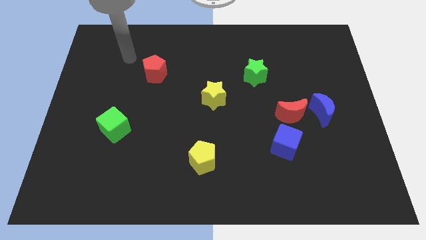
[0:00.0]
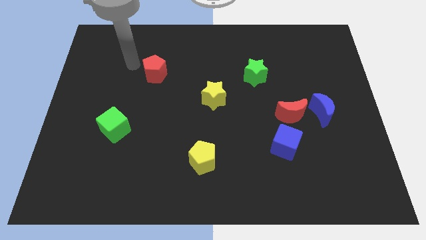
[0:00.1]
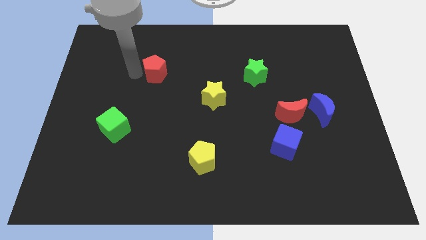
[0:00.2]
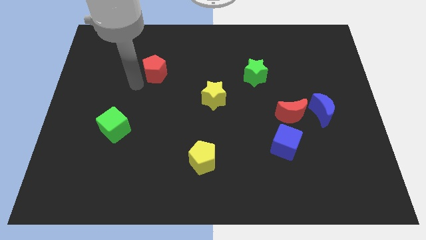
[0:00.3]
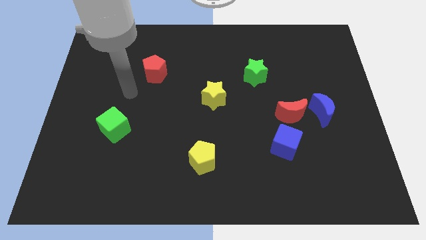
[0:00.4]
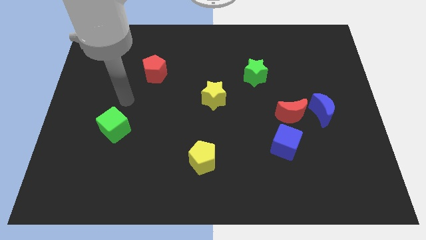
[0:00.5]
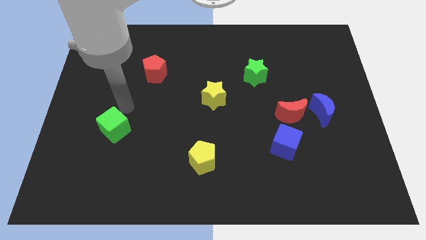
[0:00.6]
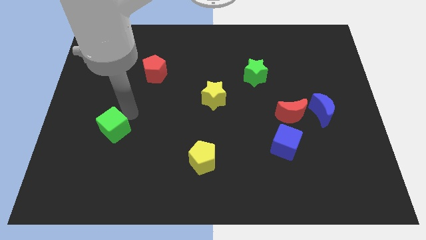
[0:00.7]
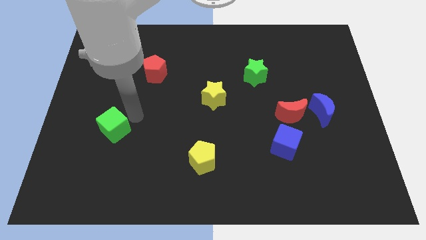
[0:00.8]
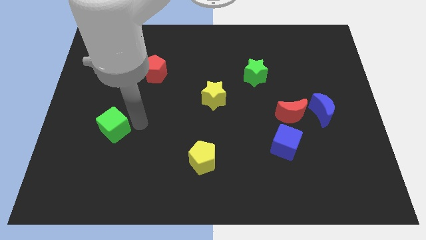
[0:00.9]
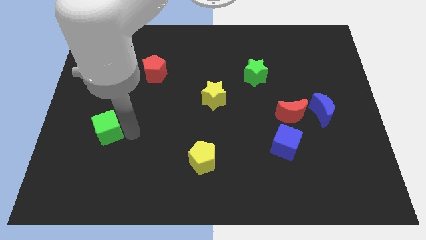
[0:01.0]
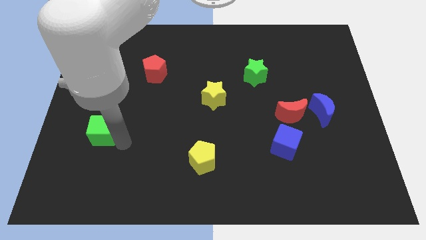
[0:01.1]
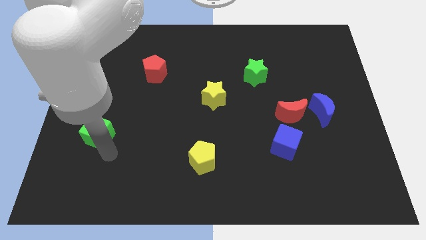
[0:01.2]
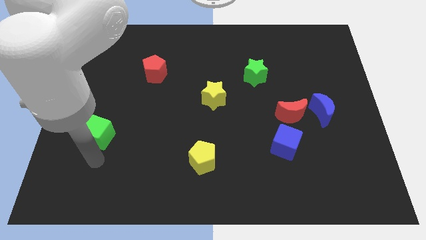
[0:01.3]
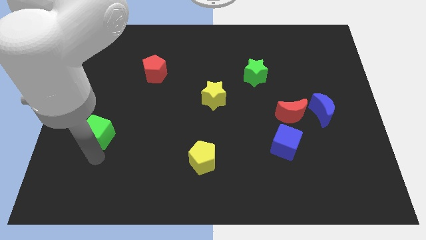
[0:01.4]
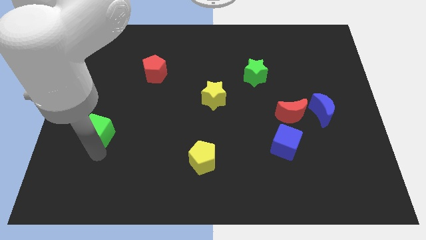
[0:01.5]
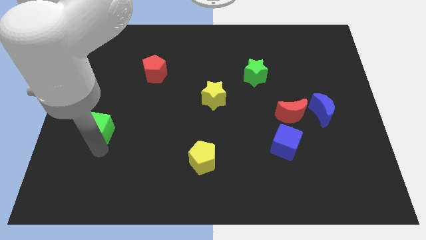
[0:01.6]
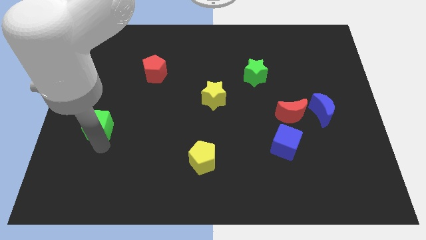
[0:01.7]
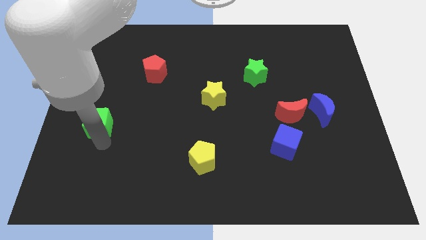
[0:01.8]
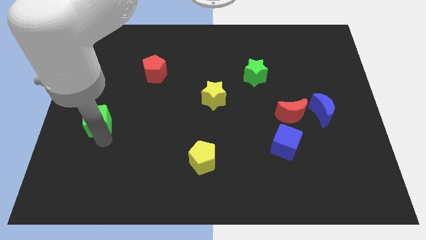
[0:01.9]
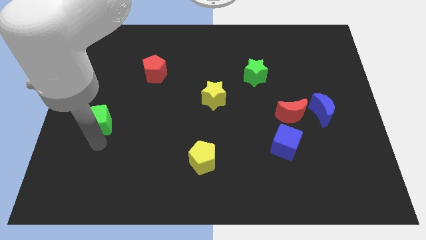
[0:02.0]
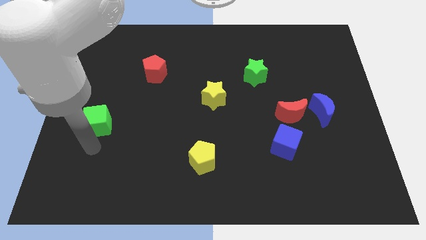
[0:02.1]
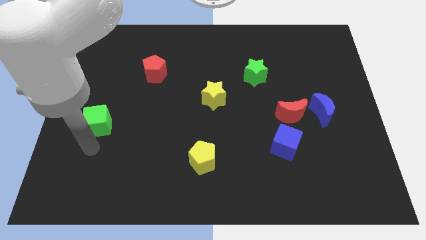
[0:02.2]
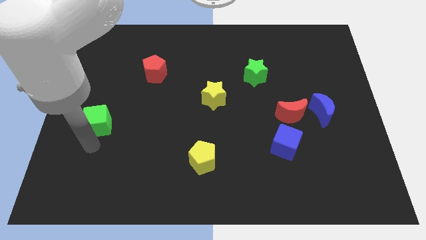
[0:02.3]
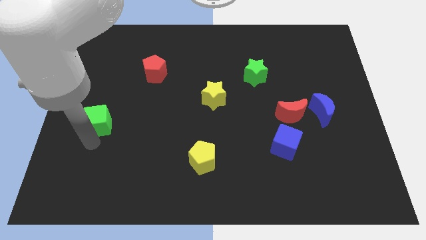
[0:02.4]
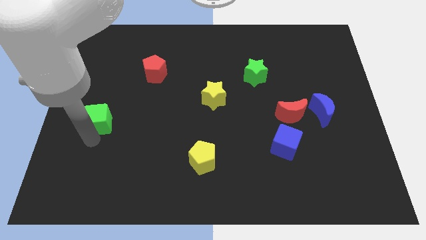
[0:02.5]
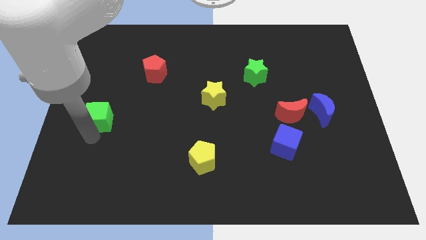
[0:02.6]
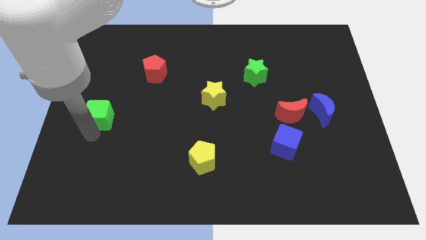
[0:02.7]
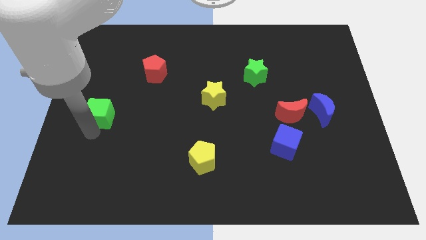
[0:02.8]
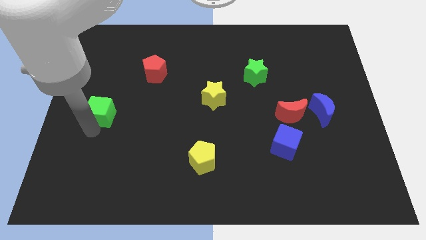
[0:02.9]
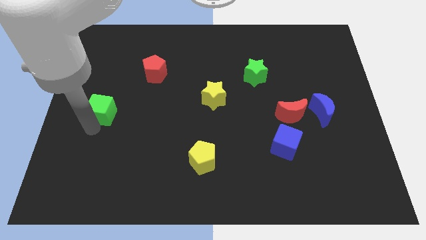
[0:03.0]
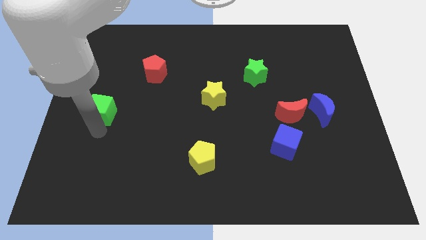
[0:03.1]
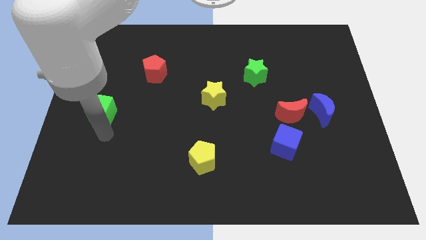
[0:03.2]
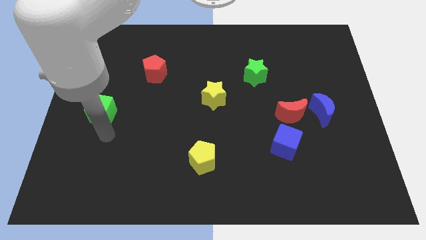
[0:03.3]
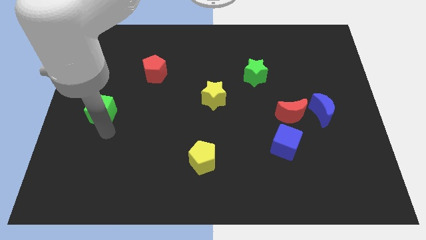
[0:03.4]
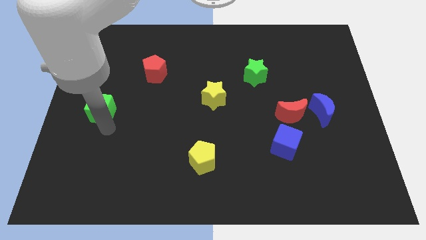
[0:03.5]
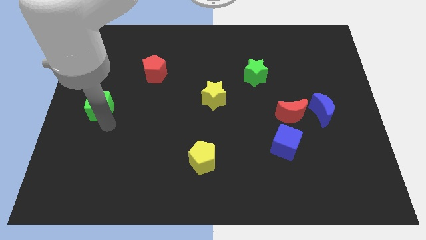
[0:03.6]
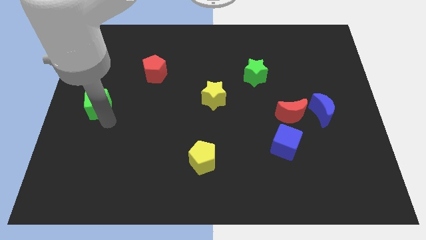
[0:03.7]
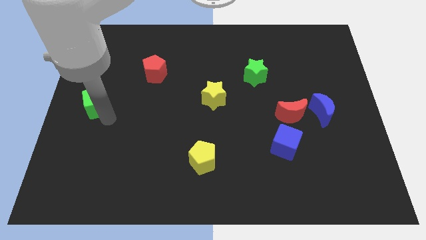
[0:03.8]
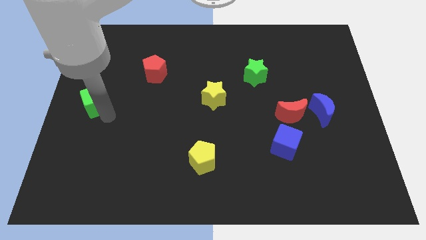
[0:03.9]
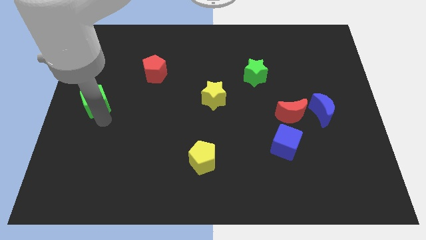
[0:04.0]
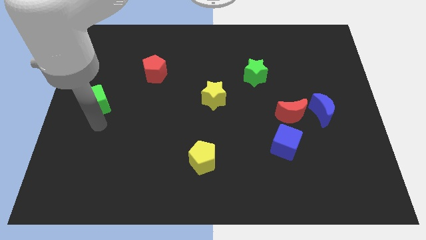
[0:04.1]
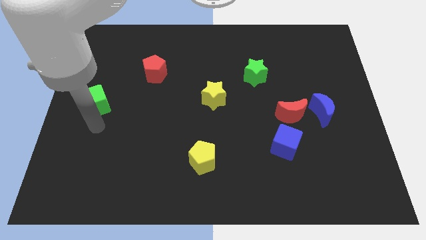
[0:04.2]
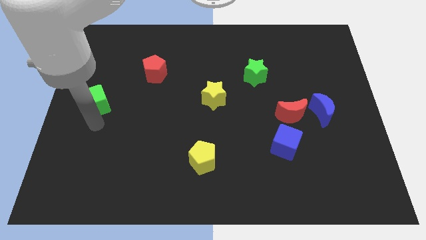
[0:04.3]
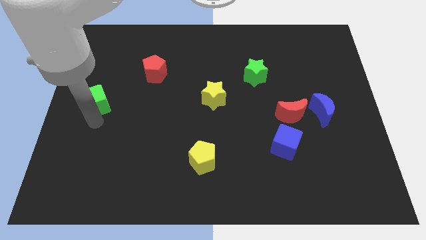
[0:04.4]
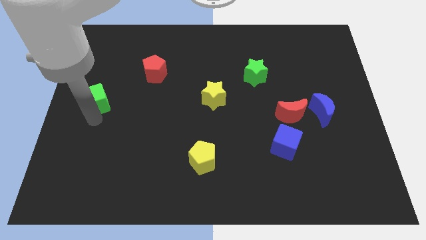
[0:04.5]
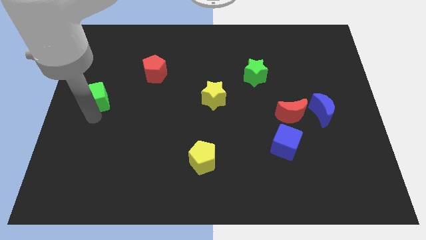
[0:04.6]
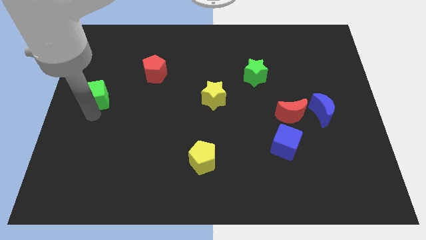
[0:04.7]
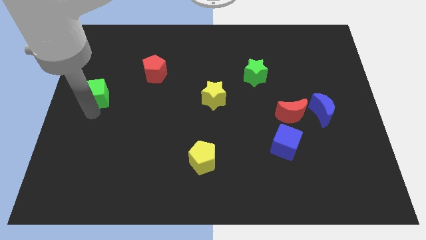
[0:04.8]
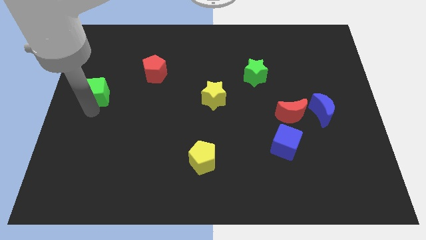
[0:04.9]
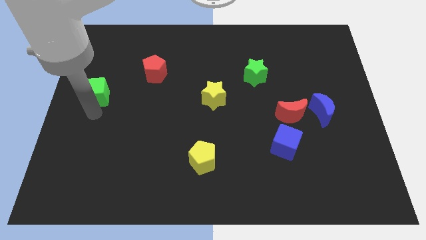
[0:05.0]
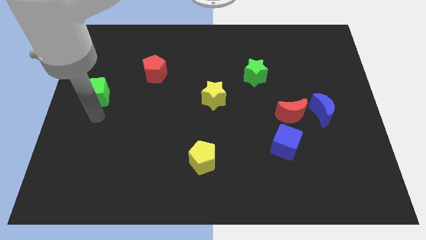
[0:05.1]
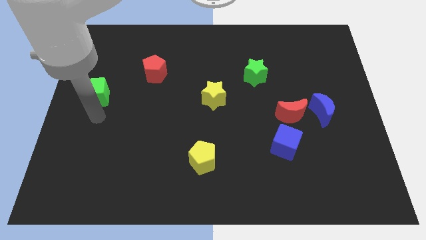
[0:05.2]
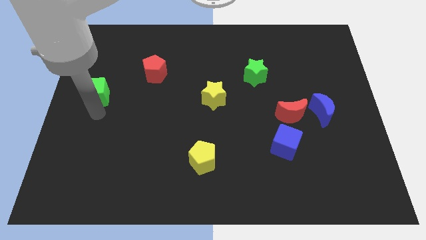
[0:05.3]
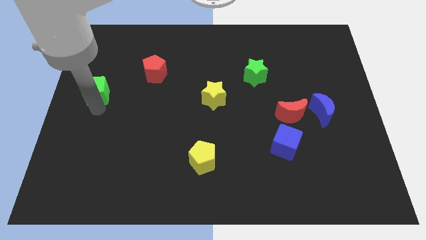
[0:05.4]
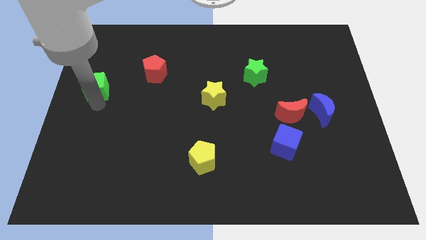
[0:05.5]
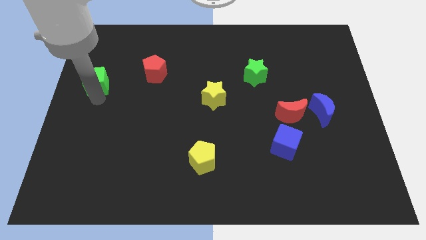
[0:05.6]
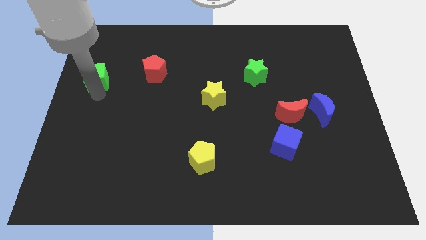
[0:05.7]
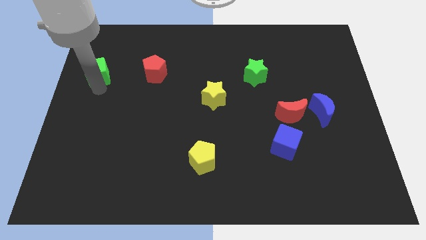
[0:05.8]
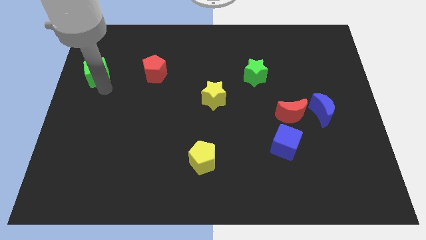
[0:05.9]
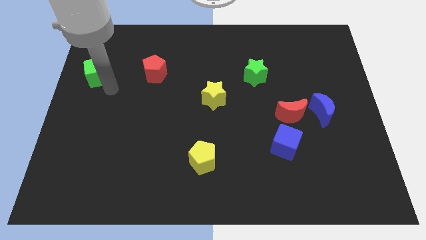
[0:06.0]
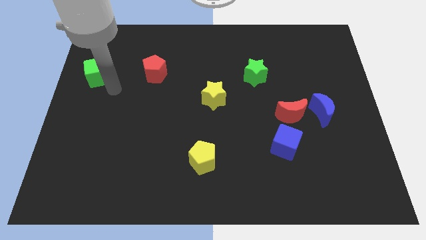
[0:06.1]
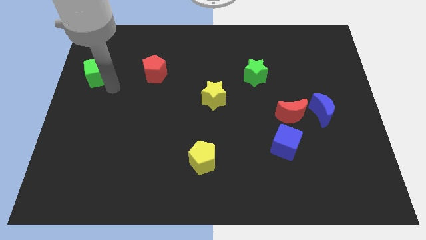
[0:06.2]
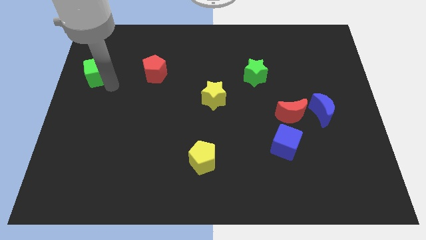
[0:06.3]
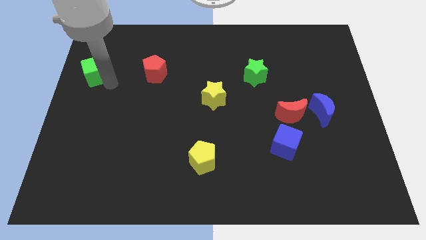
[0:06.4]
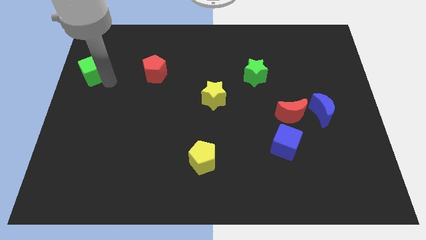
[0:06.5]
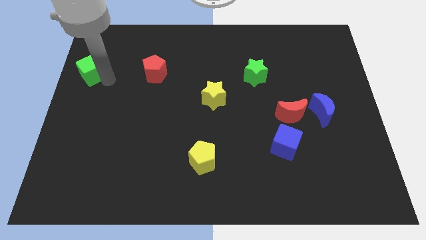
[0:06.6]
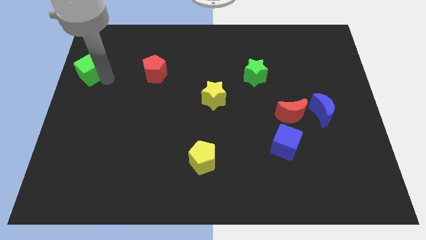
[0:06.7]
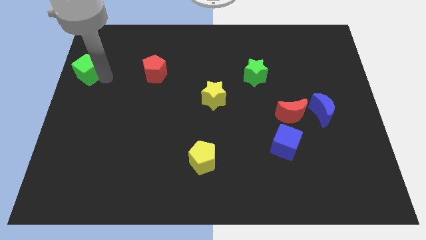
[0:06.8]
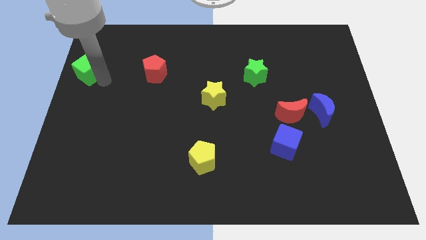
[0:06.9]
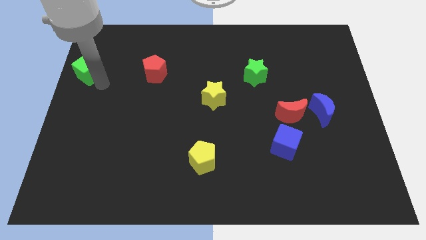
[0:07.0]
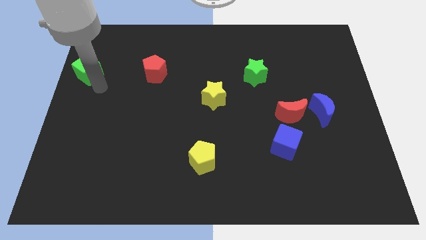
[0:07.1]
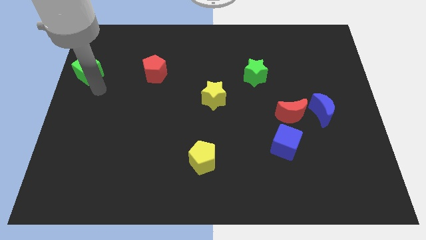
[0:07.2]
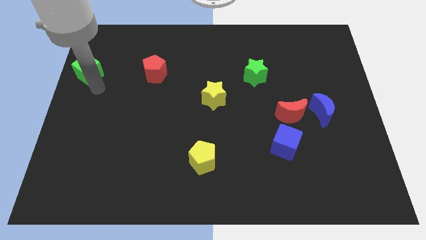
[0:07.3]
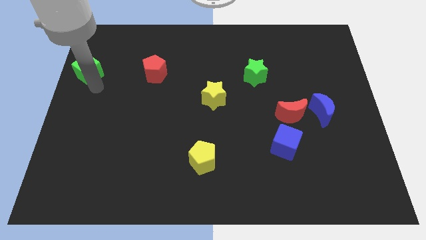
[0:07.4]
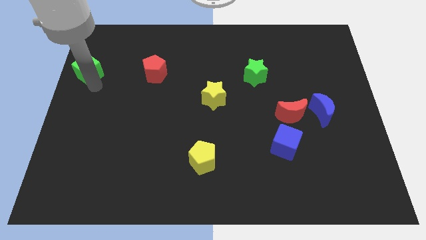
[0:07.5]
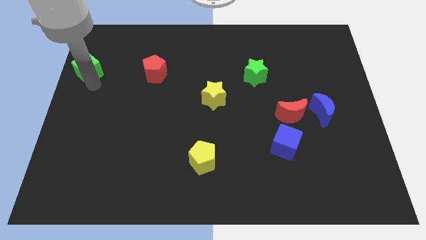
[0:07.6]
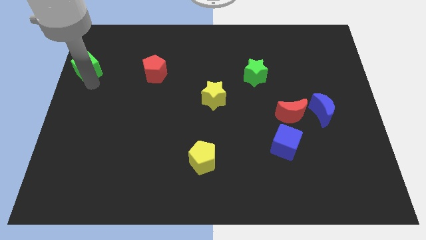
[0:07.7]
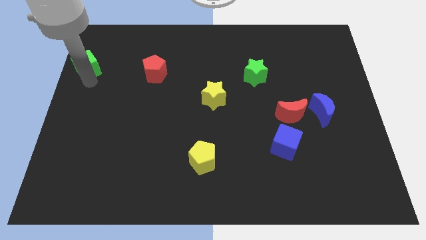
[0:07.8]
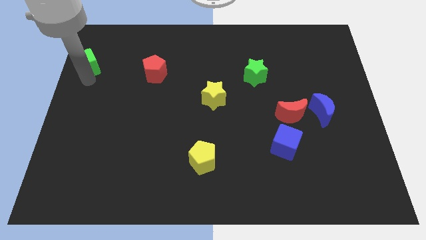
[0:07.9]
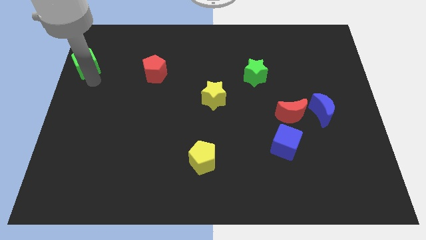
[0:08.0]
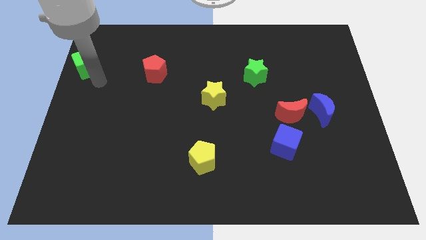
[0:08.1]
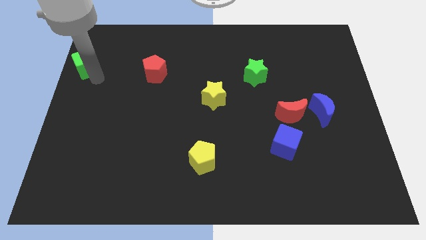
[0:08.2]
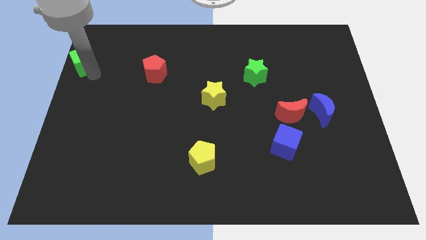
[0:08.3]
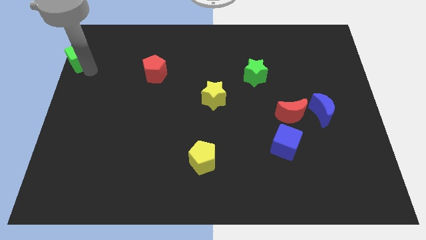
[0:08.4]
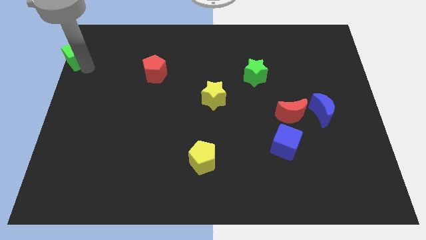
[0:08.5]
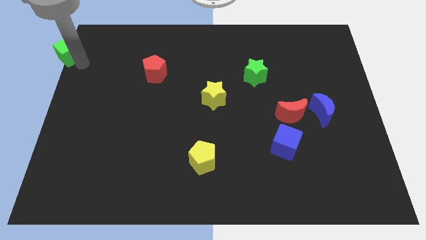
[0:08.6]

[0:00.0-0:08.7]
put the green cube to the upper left corner

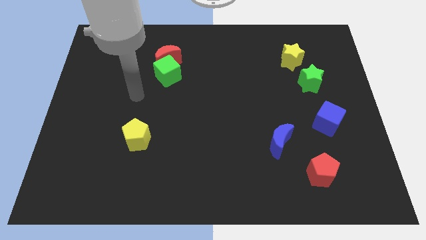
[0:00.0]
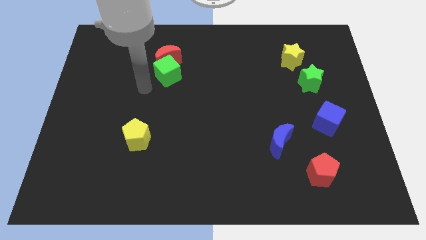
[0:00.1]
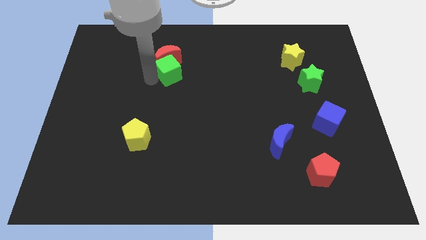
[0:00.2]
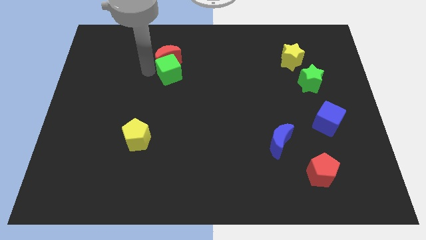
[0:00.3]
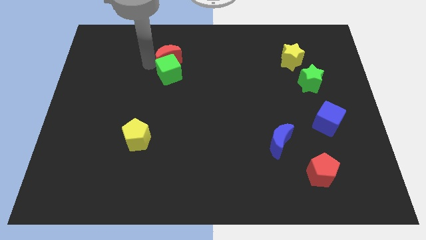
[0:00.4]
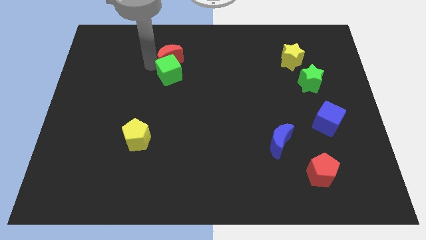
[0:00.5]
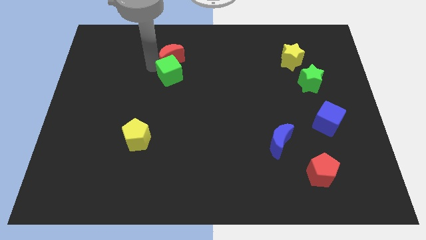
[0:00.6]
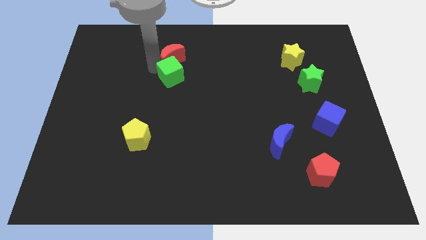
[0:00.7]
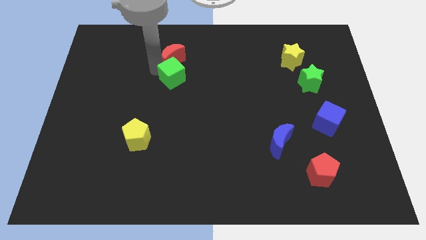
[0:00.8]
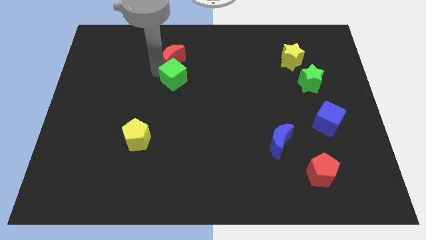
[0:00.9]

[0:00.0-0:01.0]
push the green cube to the center
